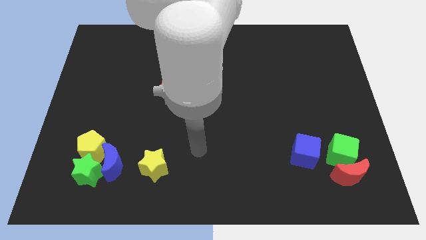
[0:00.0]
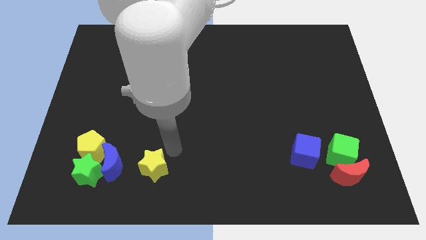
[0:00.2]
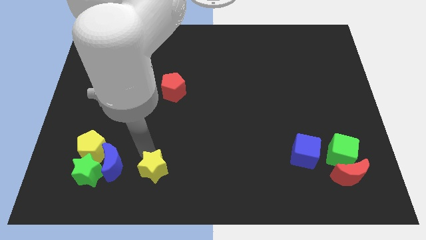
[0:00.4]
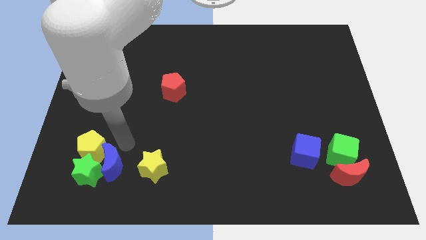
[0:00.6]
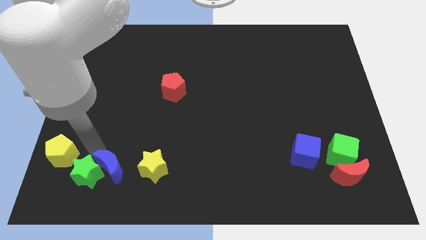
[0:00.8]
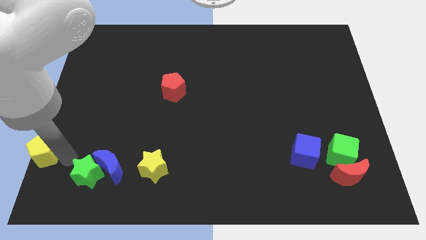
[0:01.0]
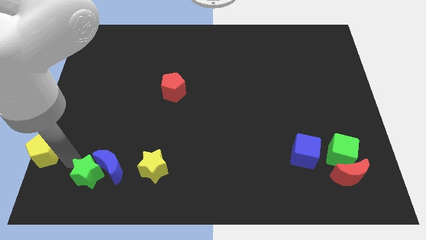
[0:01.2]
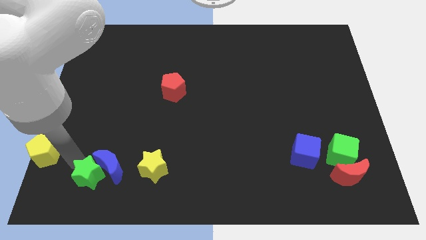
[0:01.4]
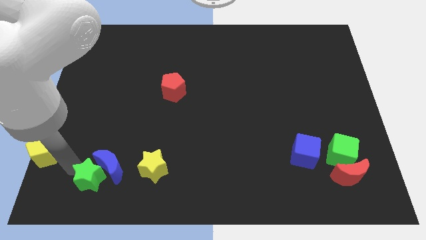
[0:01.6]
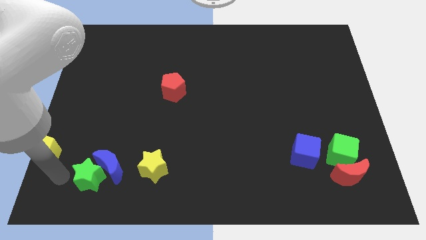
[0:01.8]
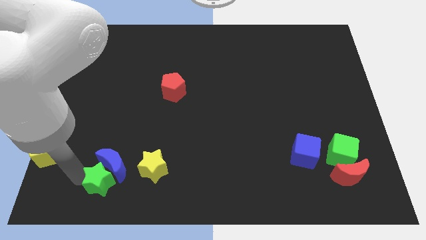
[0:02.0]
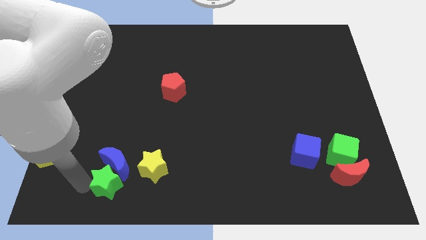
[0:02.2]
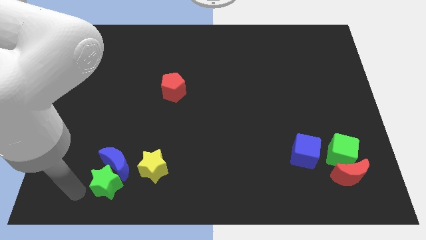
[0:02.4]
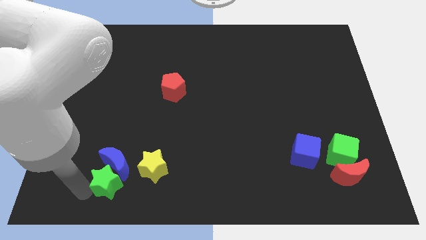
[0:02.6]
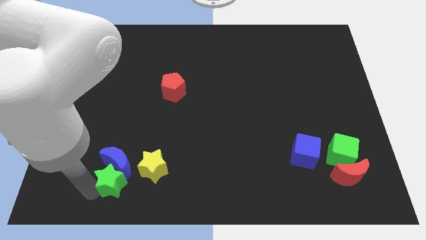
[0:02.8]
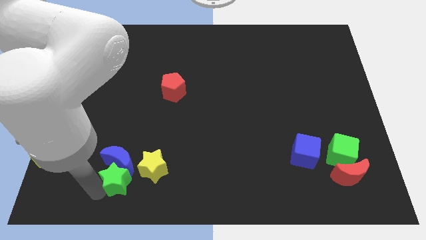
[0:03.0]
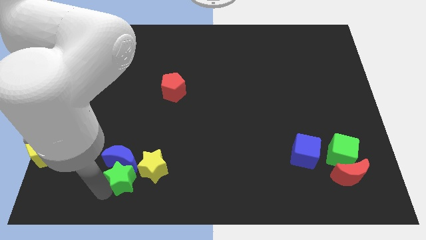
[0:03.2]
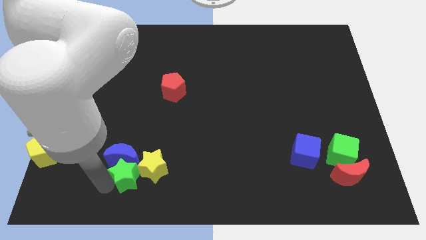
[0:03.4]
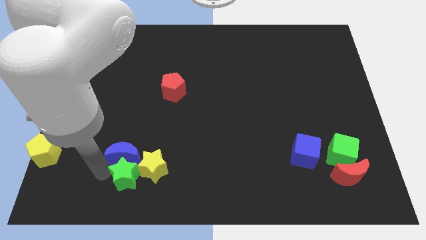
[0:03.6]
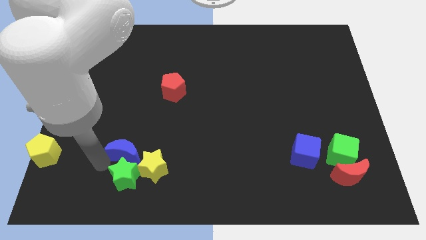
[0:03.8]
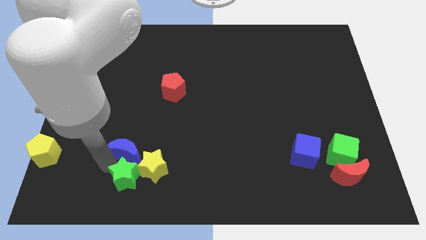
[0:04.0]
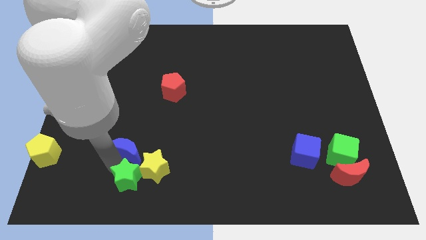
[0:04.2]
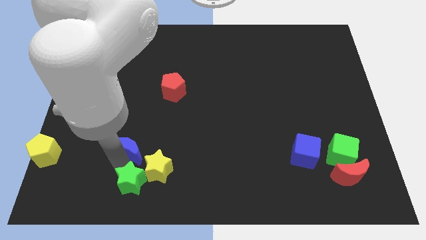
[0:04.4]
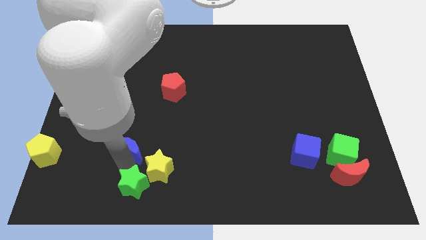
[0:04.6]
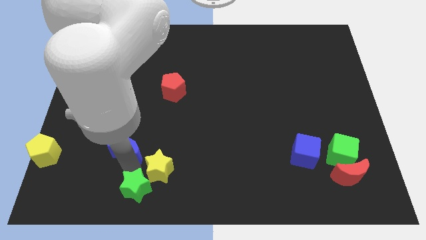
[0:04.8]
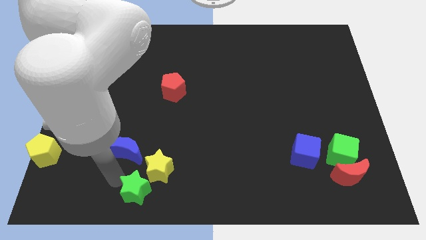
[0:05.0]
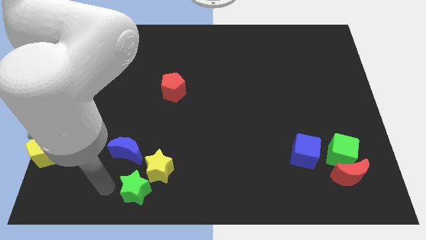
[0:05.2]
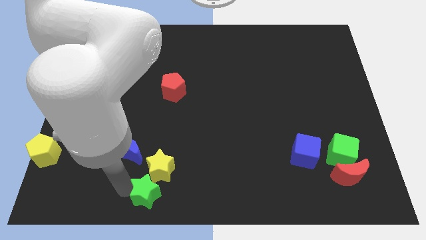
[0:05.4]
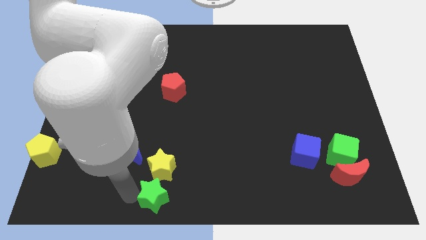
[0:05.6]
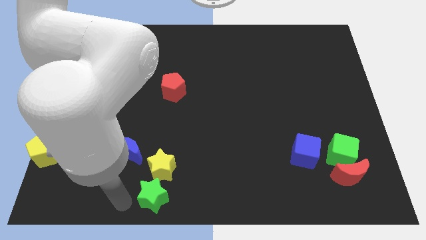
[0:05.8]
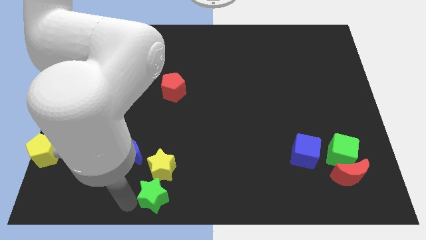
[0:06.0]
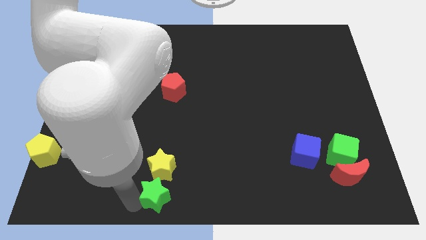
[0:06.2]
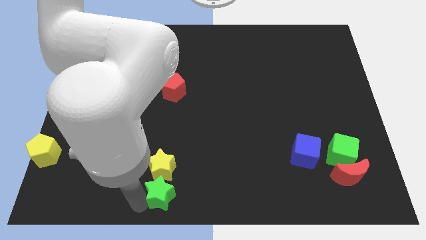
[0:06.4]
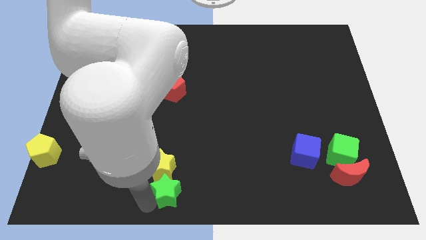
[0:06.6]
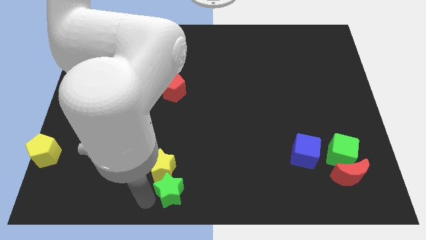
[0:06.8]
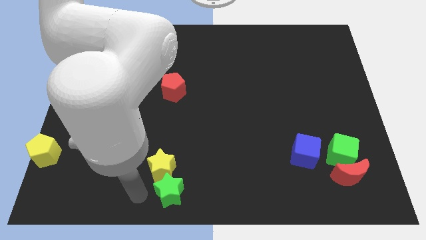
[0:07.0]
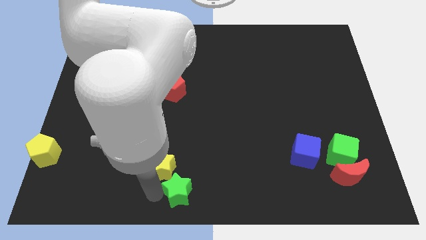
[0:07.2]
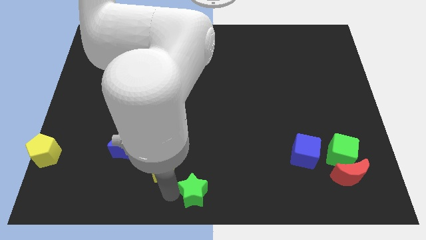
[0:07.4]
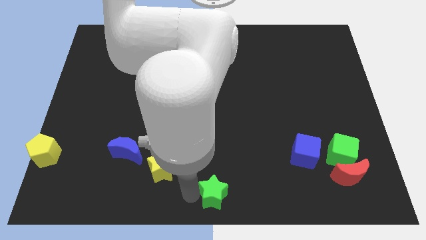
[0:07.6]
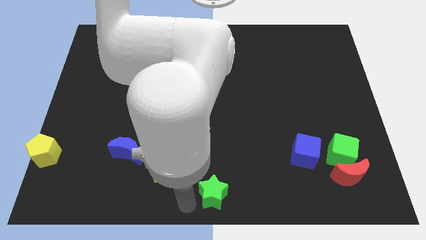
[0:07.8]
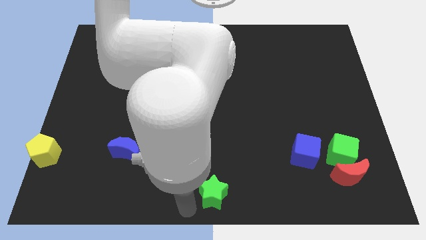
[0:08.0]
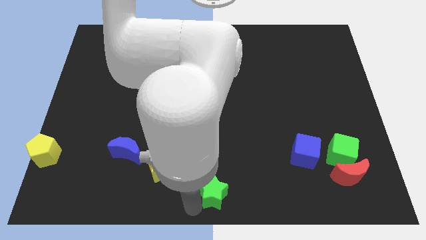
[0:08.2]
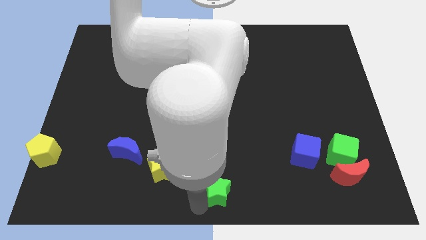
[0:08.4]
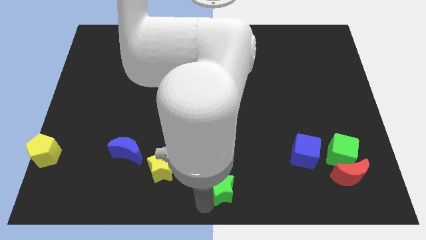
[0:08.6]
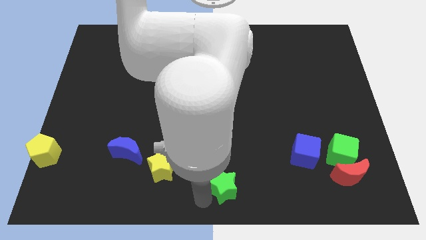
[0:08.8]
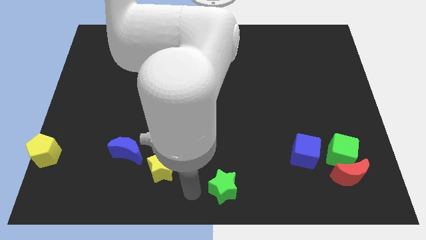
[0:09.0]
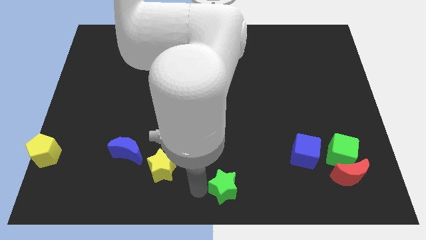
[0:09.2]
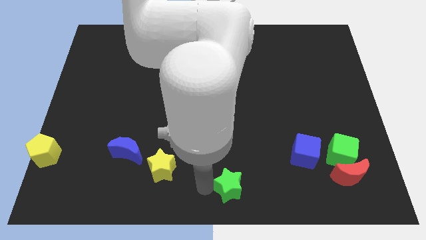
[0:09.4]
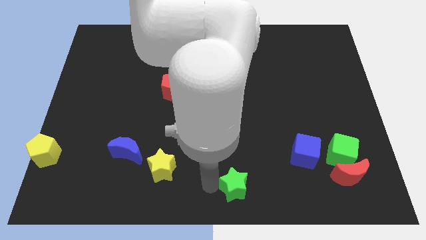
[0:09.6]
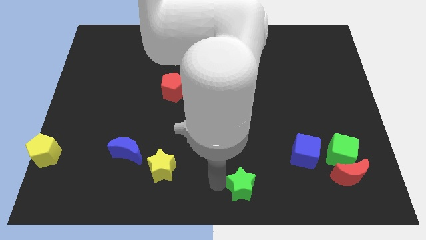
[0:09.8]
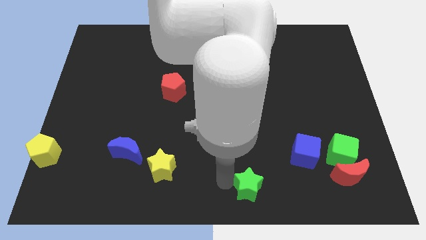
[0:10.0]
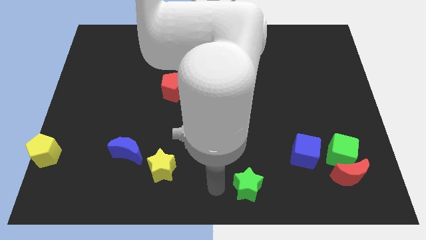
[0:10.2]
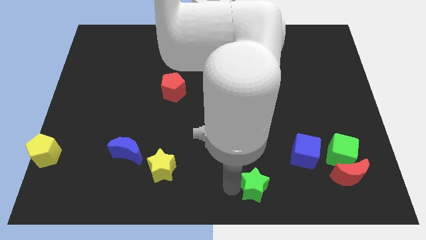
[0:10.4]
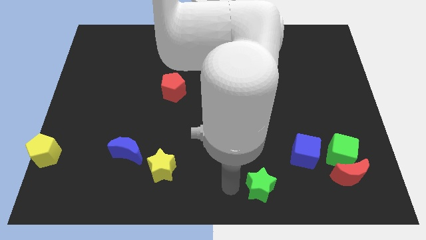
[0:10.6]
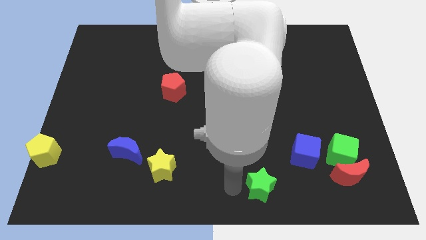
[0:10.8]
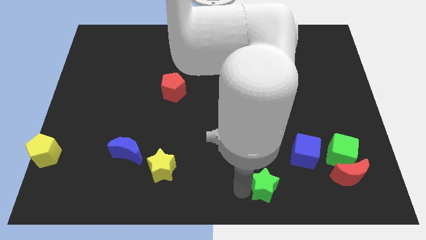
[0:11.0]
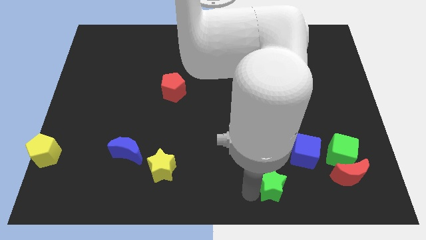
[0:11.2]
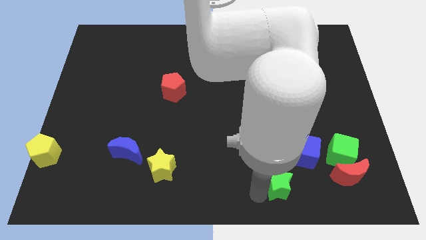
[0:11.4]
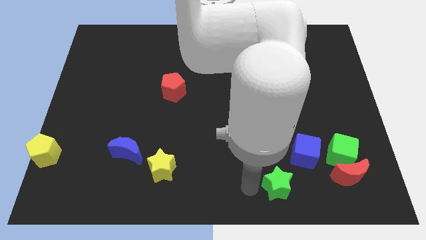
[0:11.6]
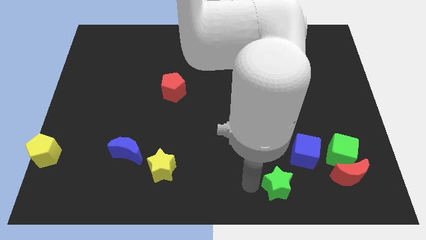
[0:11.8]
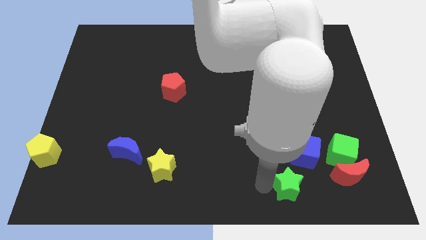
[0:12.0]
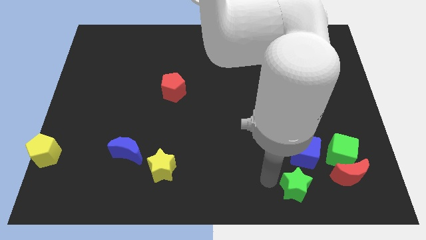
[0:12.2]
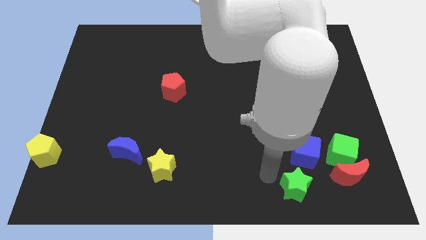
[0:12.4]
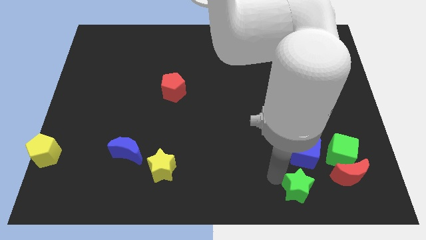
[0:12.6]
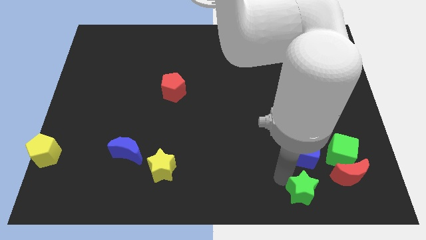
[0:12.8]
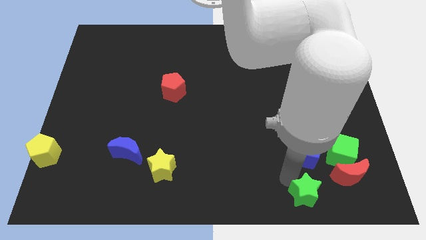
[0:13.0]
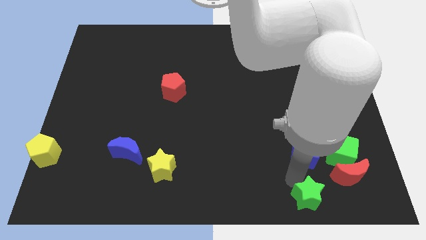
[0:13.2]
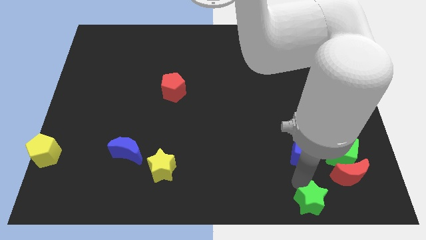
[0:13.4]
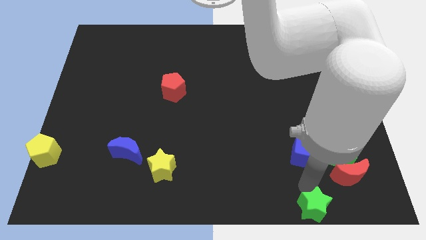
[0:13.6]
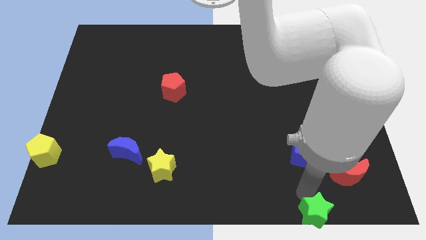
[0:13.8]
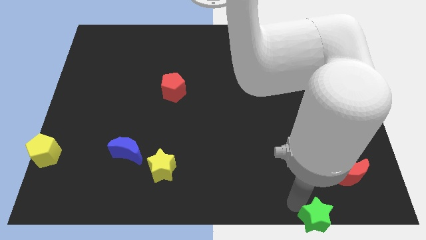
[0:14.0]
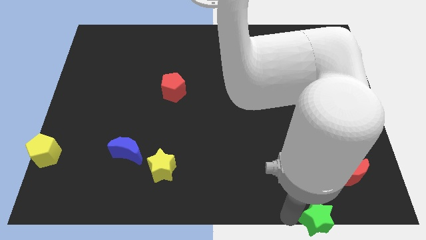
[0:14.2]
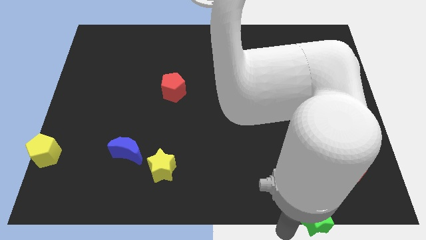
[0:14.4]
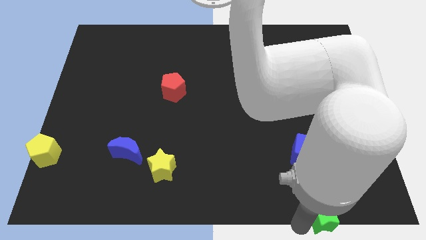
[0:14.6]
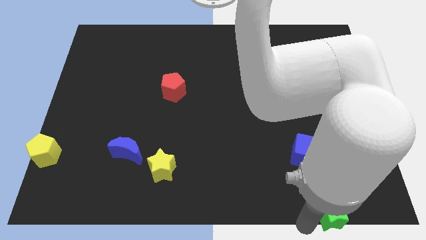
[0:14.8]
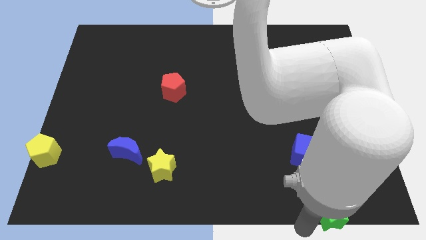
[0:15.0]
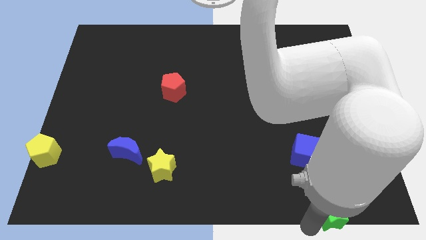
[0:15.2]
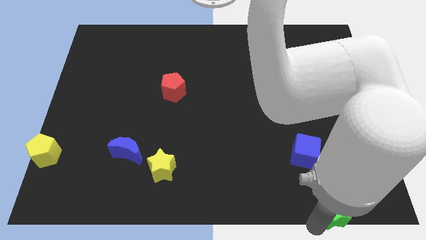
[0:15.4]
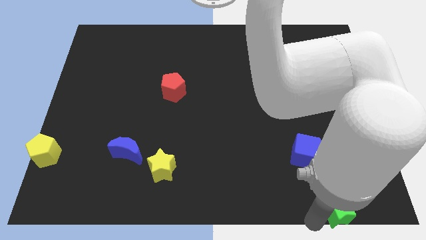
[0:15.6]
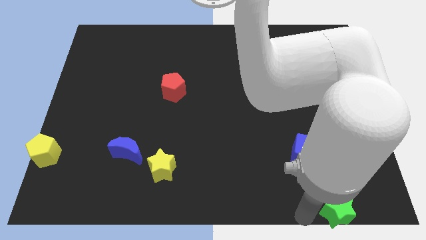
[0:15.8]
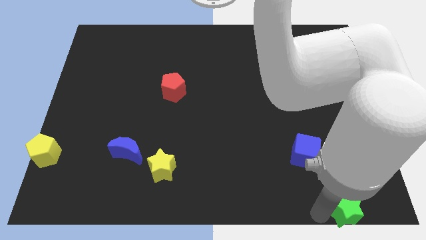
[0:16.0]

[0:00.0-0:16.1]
move the green star to the lower right corner
